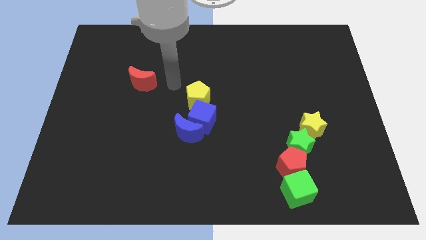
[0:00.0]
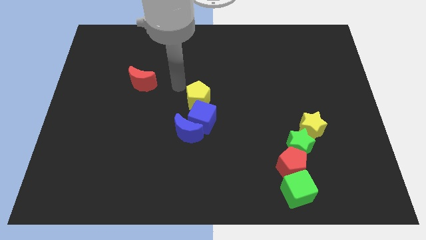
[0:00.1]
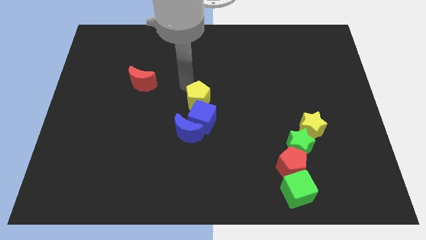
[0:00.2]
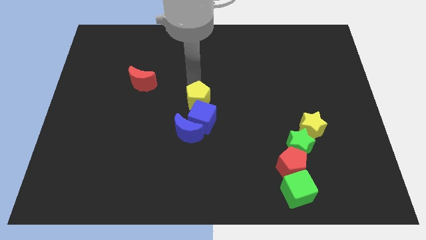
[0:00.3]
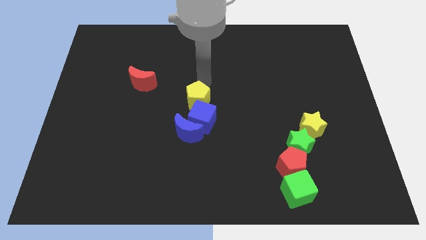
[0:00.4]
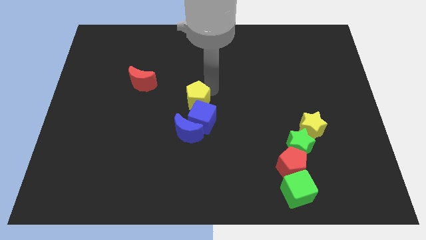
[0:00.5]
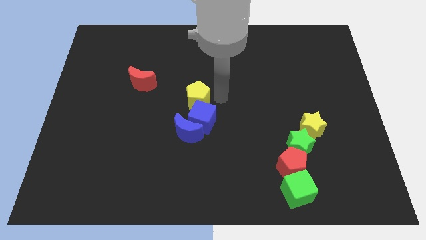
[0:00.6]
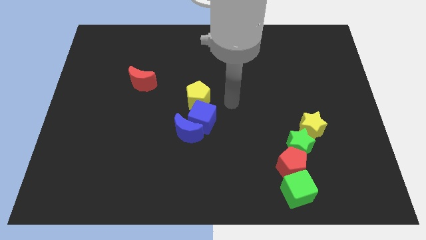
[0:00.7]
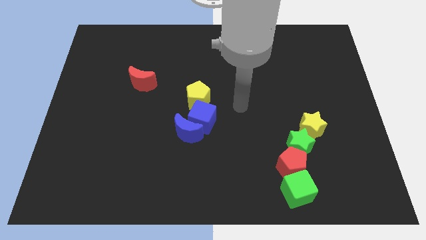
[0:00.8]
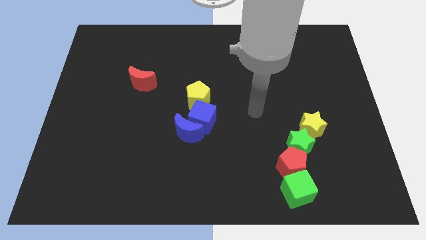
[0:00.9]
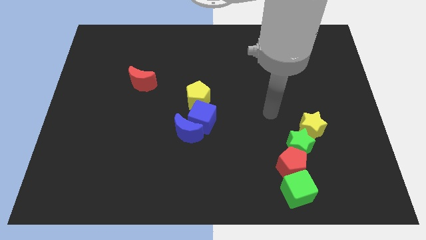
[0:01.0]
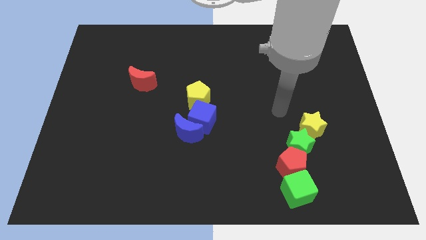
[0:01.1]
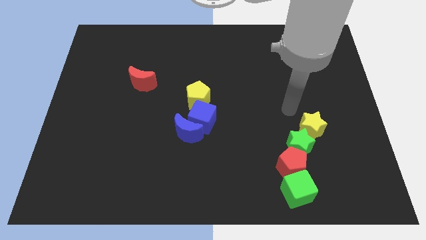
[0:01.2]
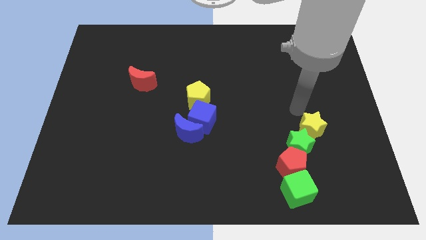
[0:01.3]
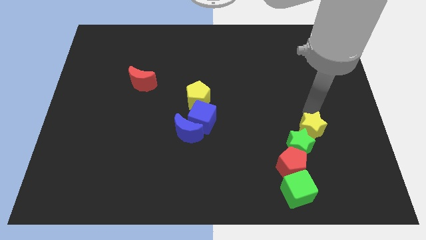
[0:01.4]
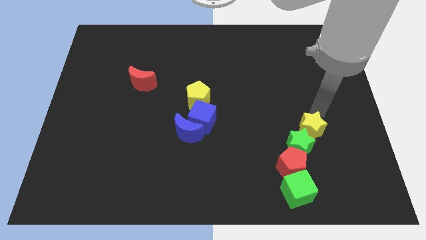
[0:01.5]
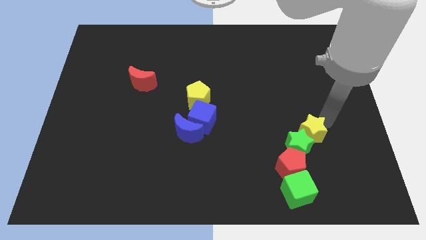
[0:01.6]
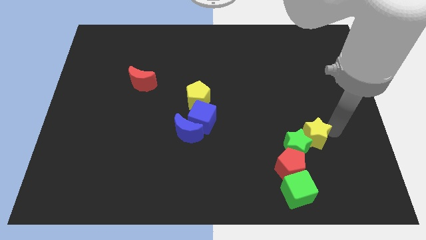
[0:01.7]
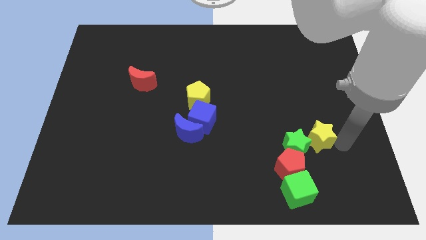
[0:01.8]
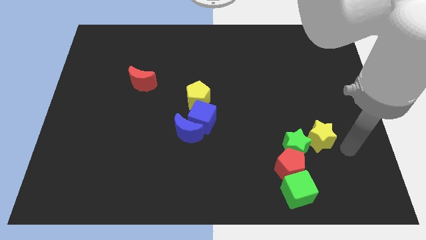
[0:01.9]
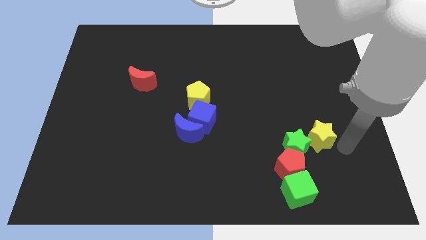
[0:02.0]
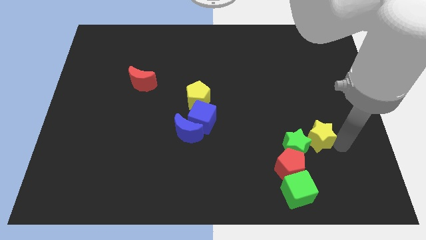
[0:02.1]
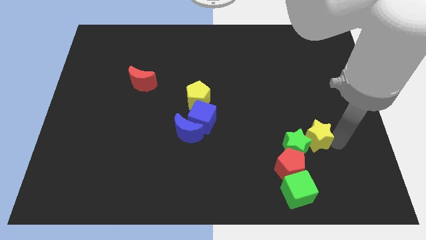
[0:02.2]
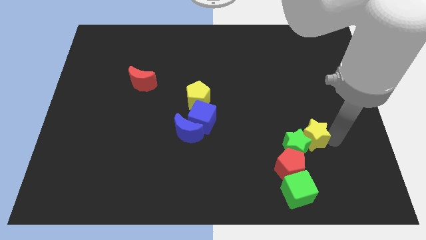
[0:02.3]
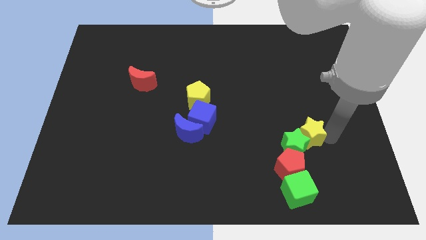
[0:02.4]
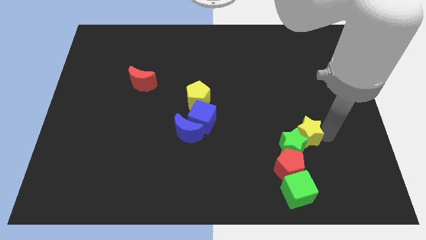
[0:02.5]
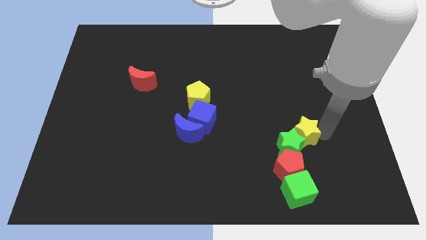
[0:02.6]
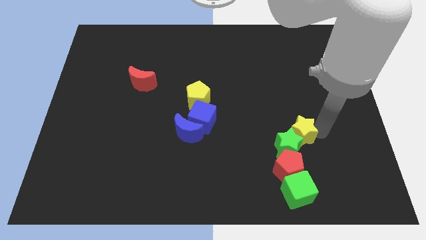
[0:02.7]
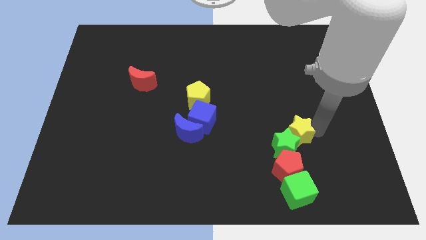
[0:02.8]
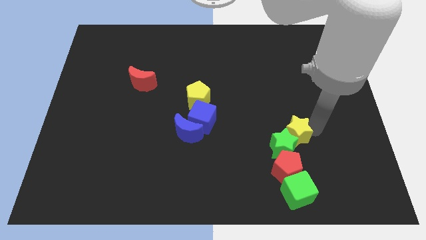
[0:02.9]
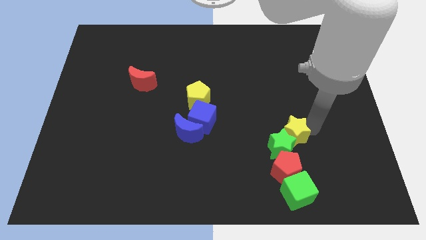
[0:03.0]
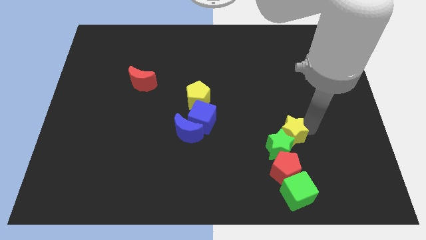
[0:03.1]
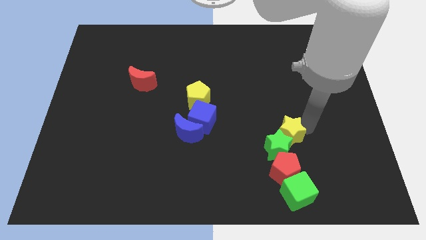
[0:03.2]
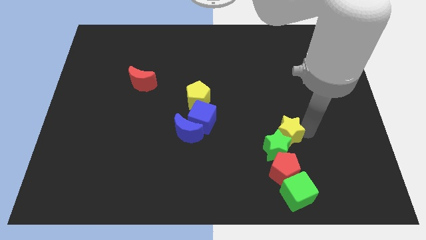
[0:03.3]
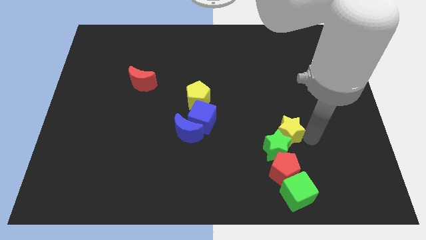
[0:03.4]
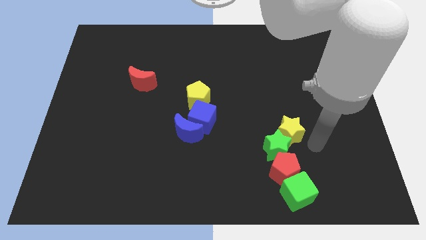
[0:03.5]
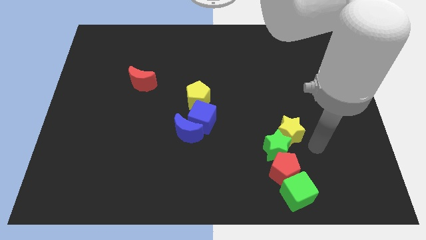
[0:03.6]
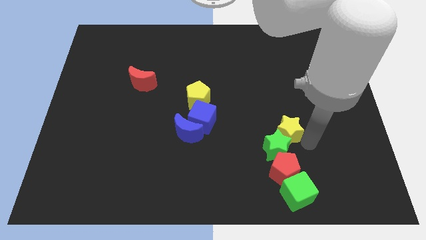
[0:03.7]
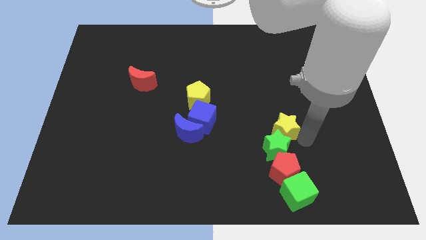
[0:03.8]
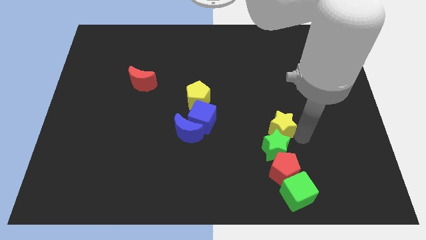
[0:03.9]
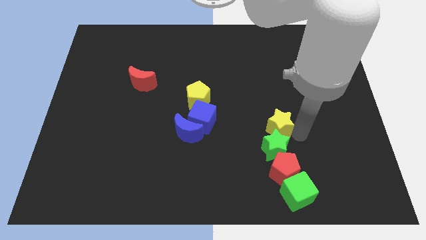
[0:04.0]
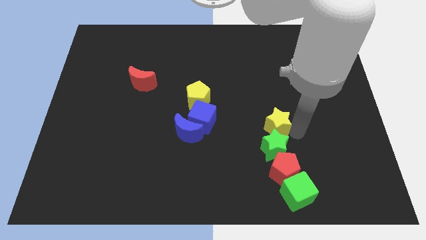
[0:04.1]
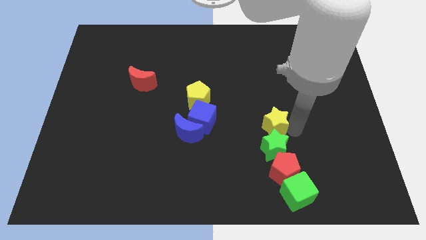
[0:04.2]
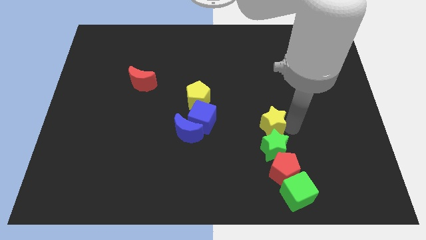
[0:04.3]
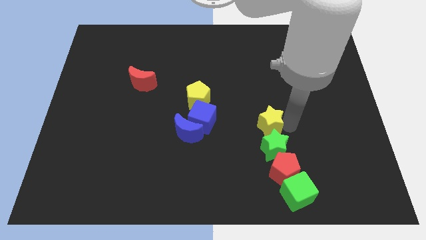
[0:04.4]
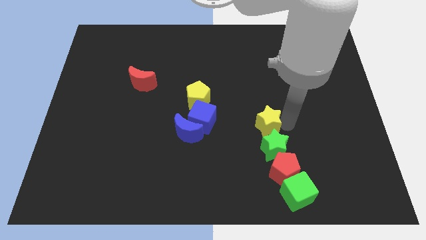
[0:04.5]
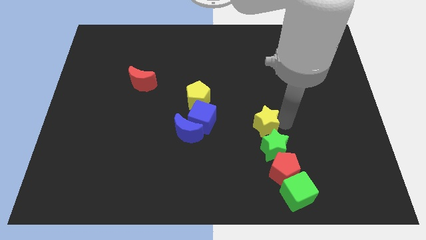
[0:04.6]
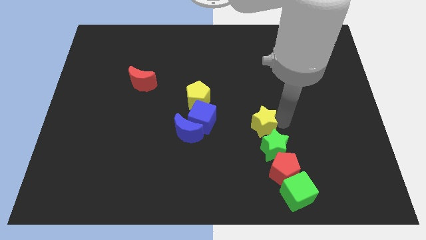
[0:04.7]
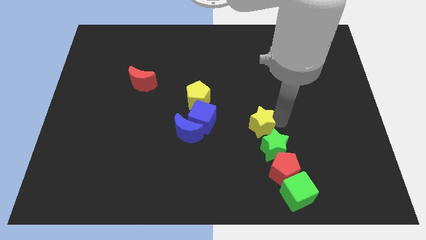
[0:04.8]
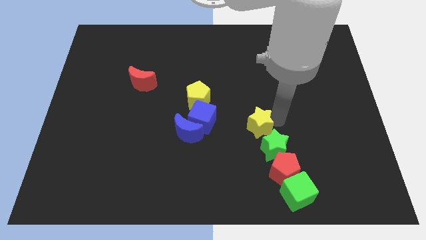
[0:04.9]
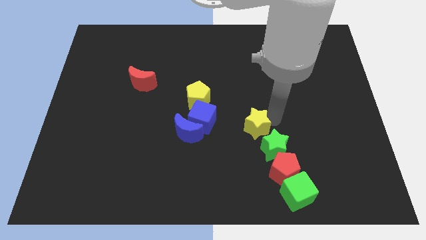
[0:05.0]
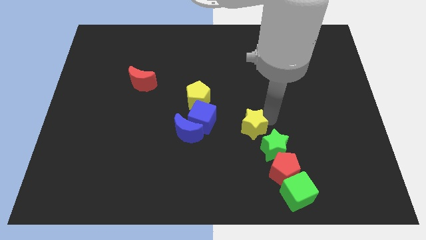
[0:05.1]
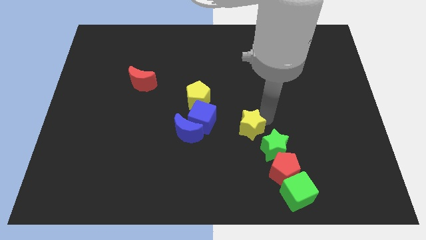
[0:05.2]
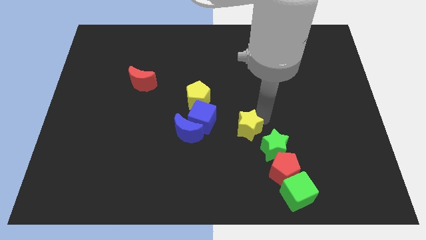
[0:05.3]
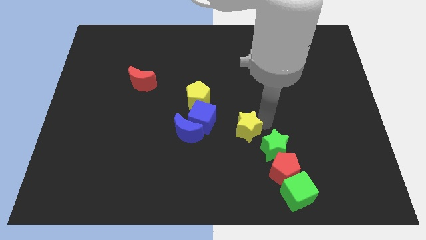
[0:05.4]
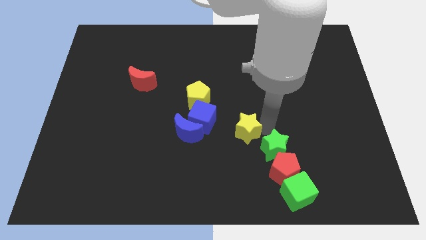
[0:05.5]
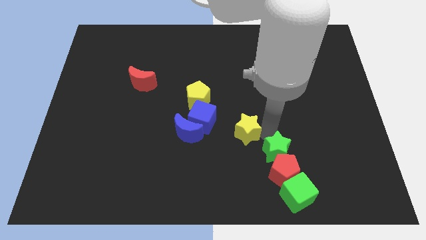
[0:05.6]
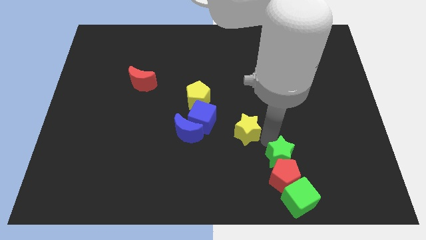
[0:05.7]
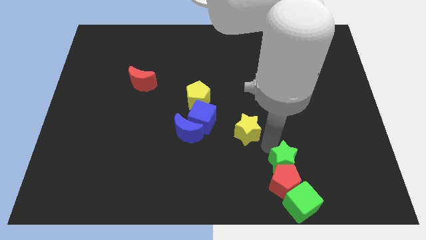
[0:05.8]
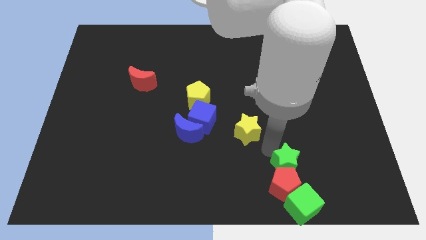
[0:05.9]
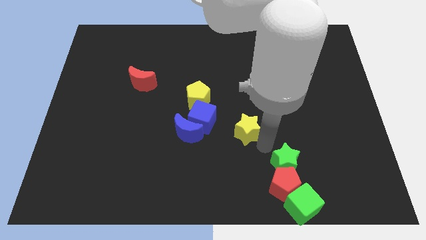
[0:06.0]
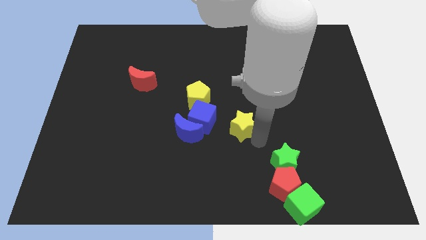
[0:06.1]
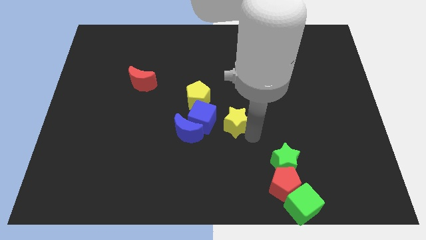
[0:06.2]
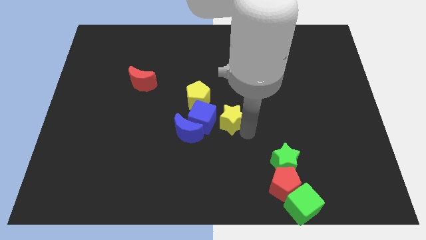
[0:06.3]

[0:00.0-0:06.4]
move the yellow star to the top right side of the blue moon

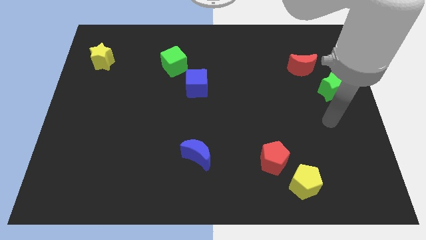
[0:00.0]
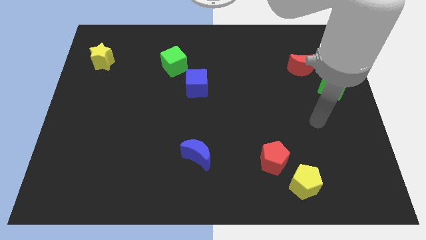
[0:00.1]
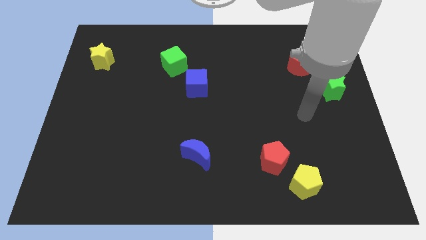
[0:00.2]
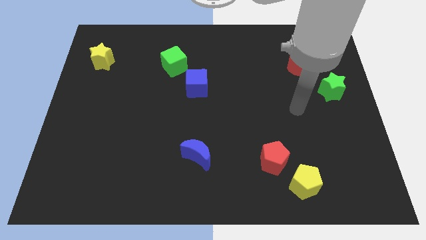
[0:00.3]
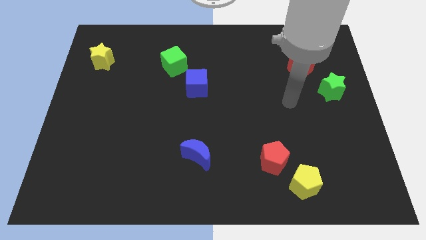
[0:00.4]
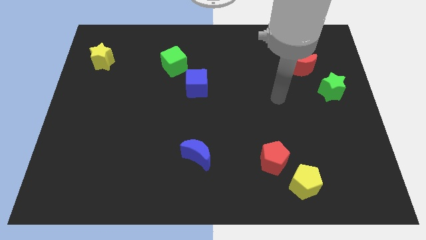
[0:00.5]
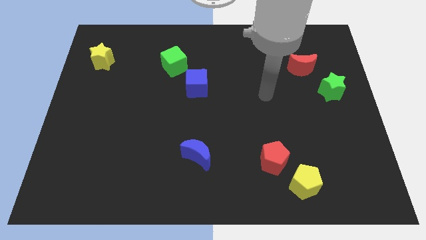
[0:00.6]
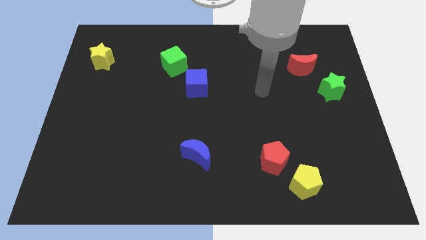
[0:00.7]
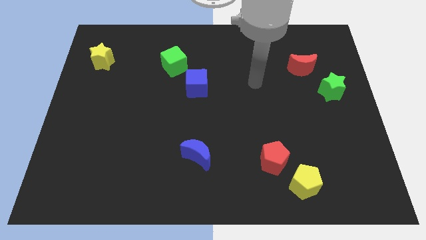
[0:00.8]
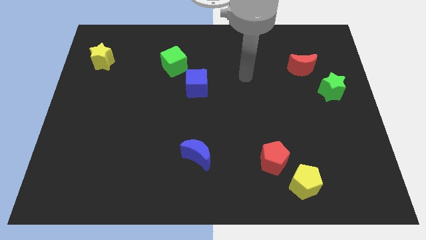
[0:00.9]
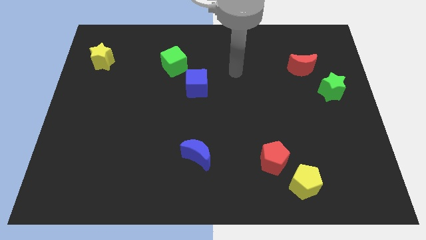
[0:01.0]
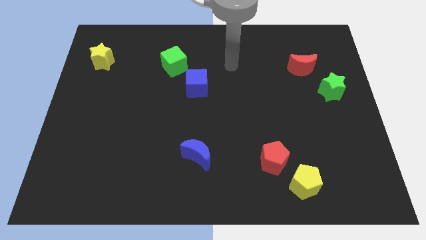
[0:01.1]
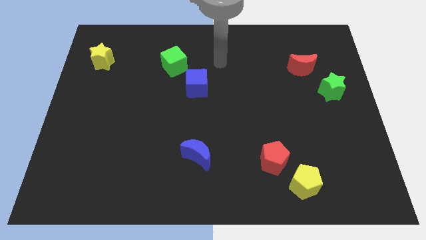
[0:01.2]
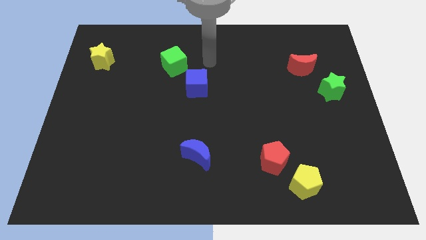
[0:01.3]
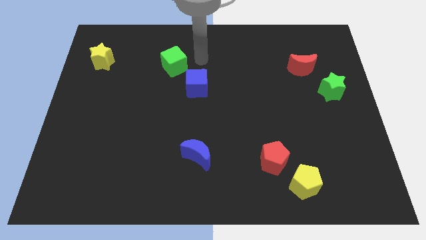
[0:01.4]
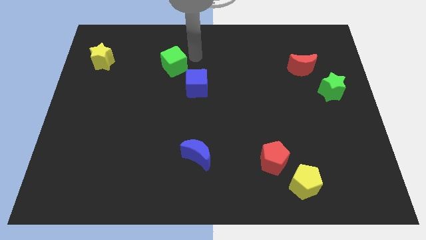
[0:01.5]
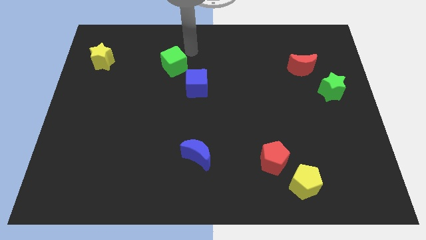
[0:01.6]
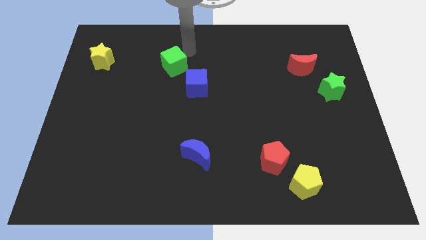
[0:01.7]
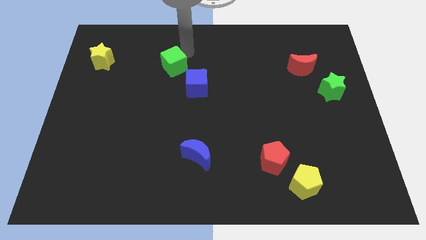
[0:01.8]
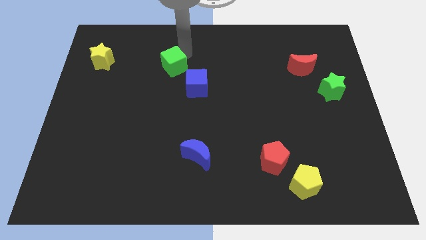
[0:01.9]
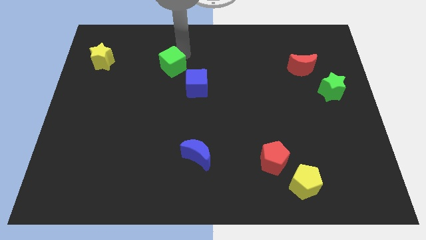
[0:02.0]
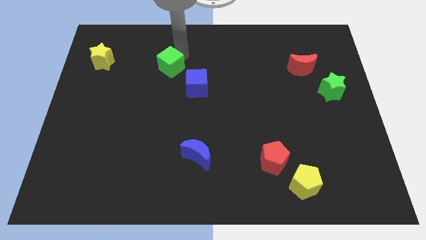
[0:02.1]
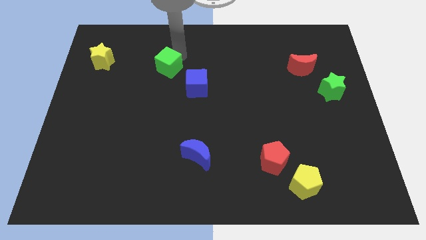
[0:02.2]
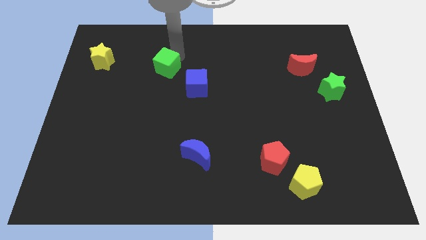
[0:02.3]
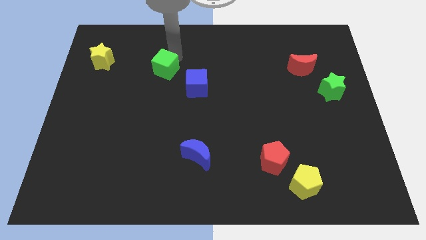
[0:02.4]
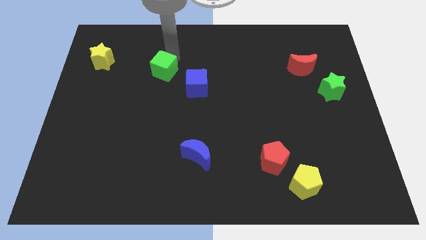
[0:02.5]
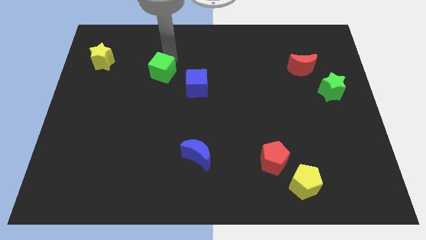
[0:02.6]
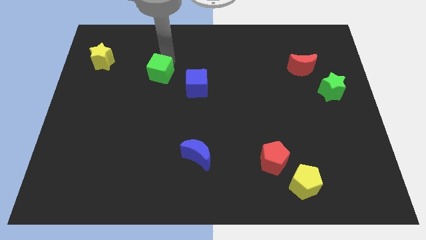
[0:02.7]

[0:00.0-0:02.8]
put the green cube just left of the blue cube
